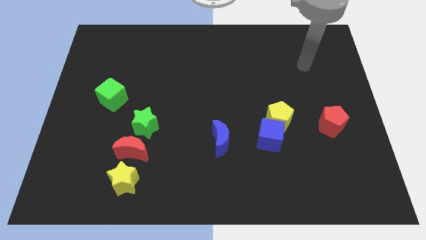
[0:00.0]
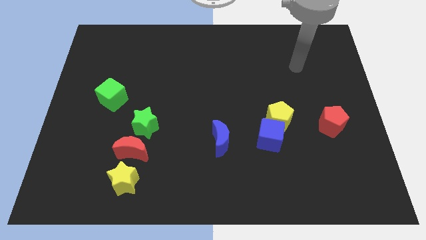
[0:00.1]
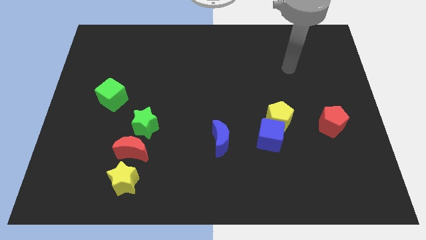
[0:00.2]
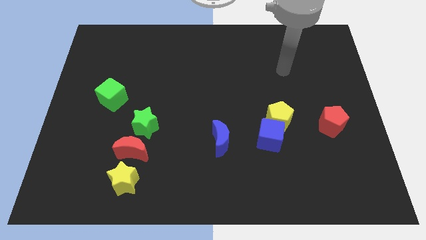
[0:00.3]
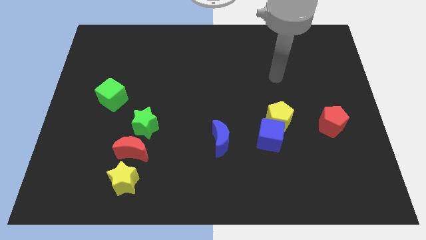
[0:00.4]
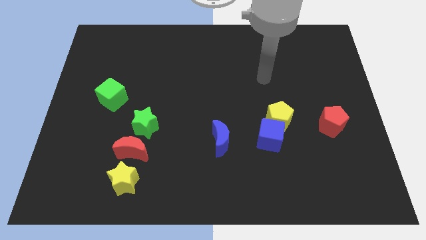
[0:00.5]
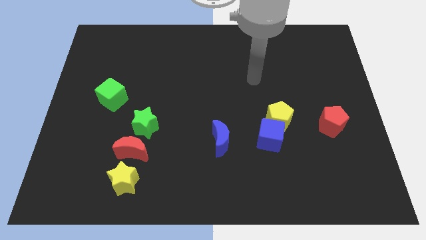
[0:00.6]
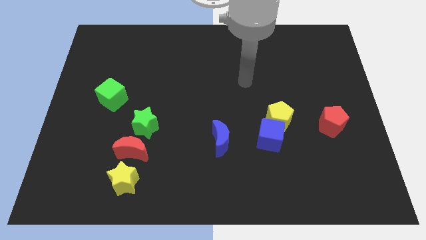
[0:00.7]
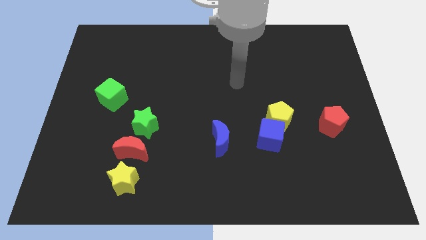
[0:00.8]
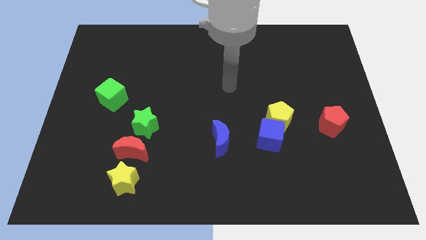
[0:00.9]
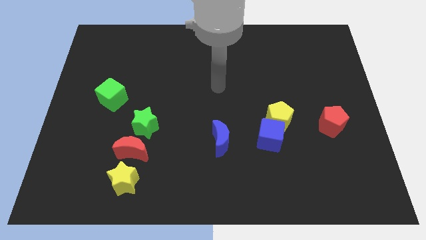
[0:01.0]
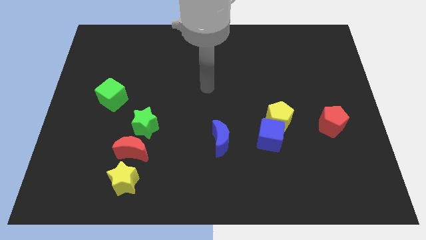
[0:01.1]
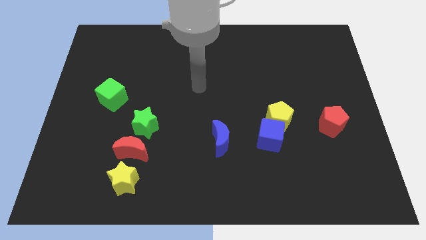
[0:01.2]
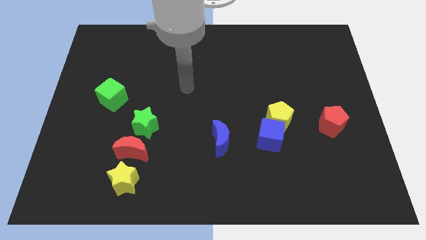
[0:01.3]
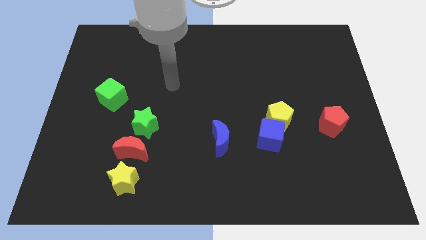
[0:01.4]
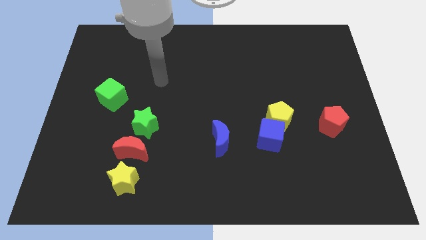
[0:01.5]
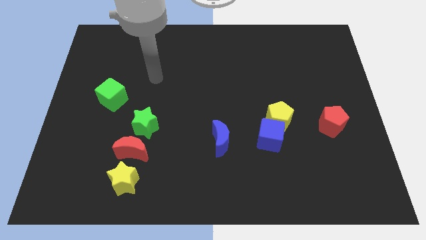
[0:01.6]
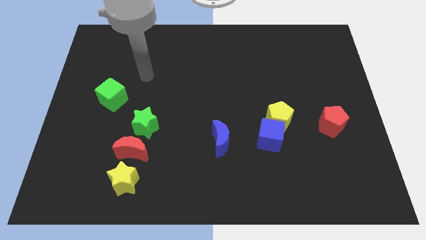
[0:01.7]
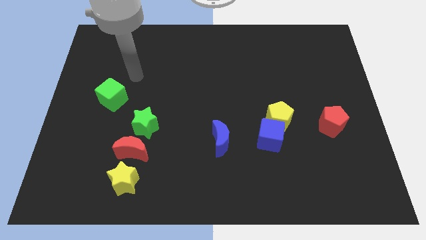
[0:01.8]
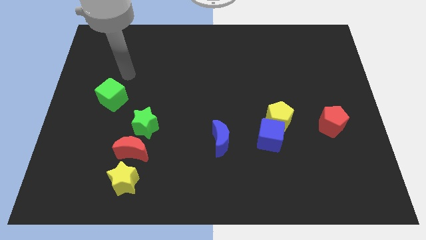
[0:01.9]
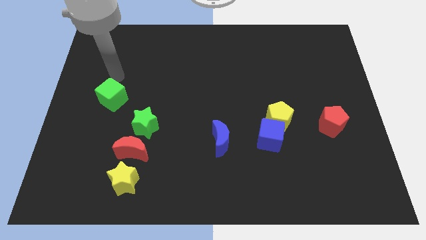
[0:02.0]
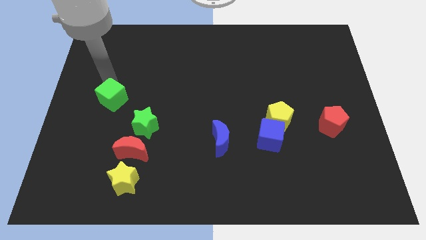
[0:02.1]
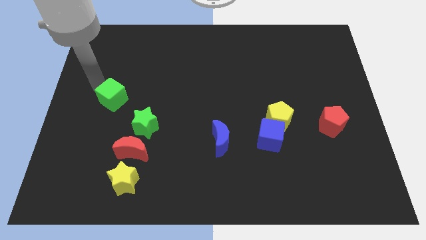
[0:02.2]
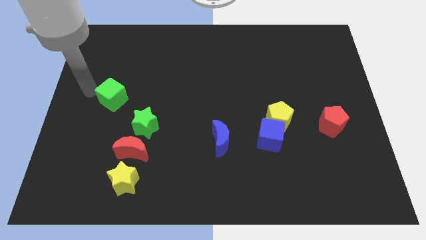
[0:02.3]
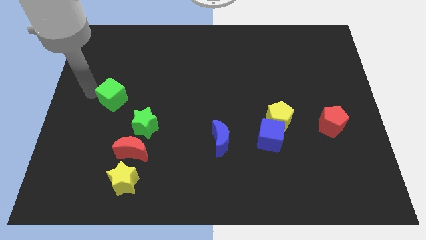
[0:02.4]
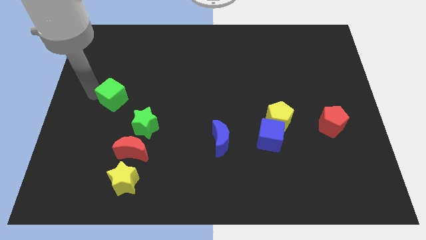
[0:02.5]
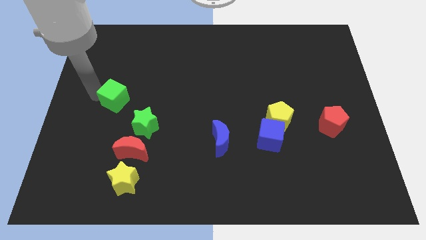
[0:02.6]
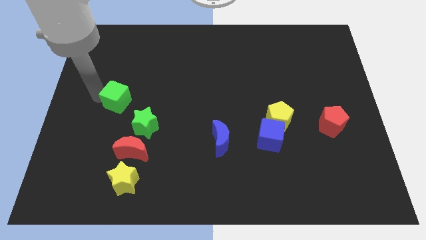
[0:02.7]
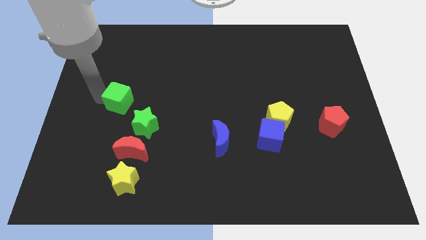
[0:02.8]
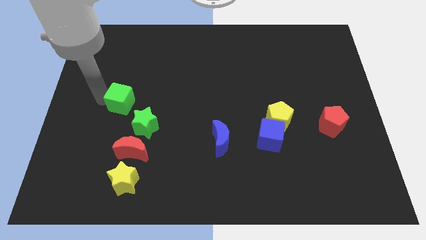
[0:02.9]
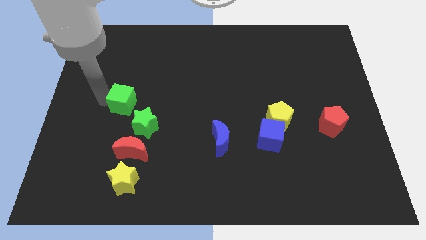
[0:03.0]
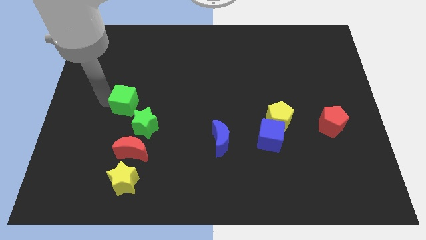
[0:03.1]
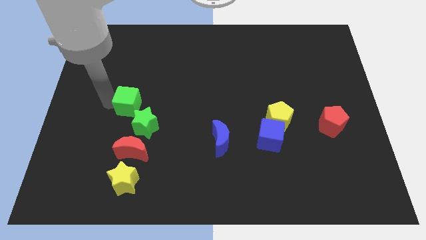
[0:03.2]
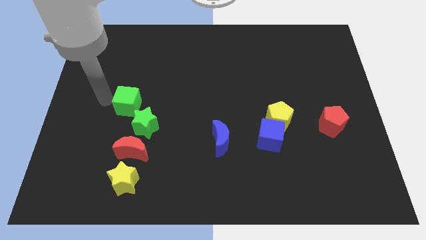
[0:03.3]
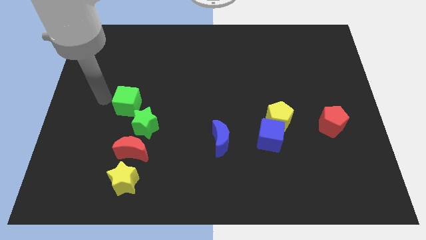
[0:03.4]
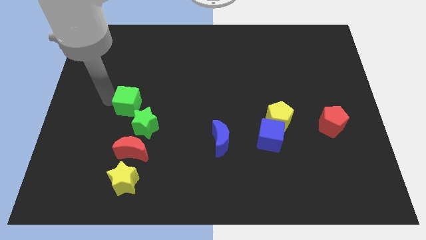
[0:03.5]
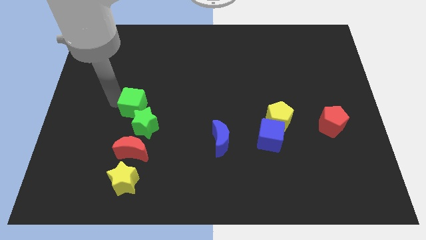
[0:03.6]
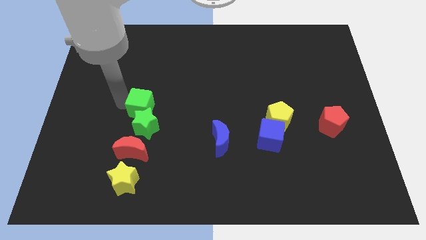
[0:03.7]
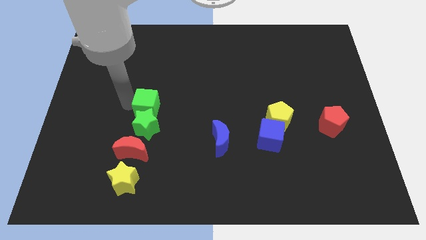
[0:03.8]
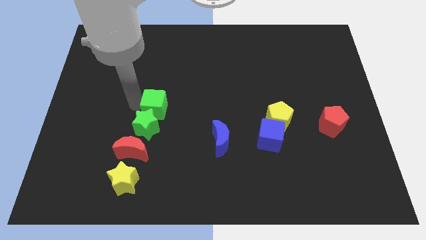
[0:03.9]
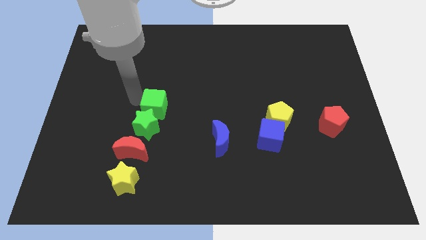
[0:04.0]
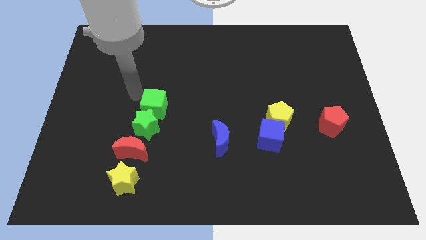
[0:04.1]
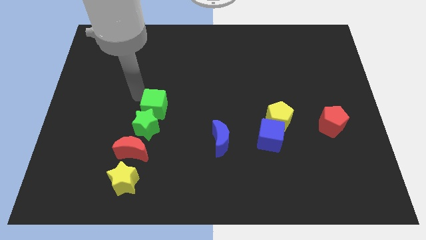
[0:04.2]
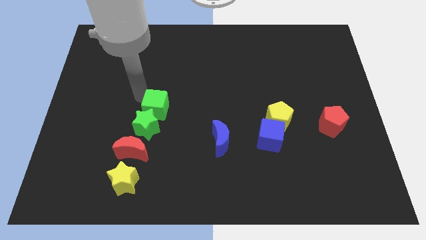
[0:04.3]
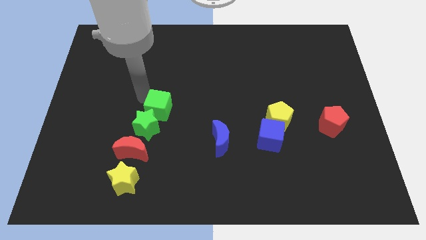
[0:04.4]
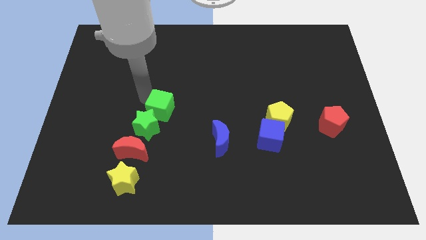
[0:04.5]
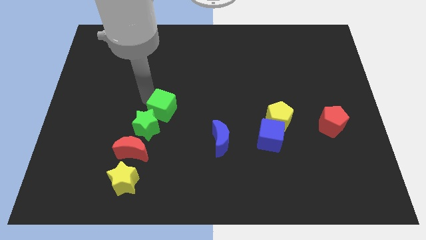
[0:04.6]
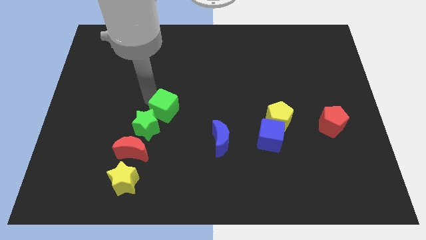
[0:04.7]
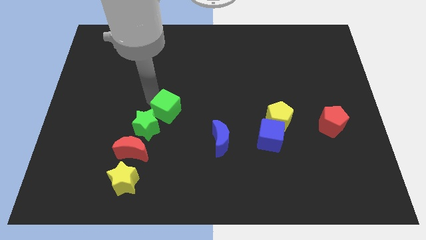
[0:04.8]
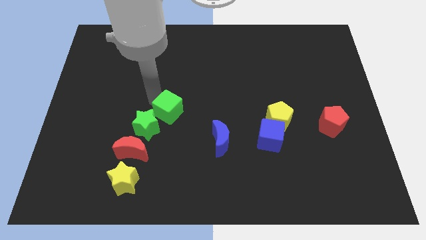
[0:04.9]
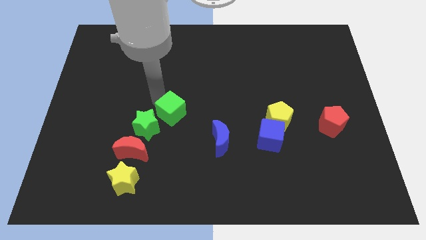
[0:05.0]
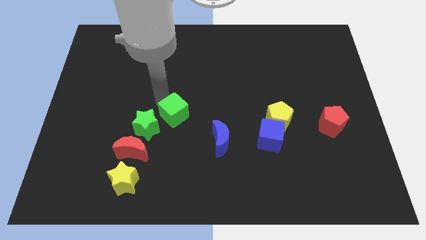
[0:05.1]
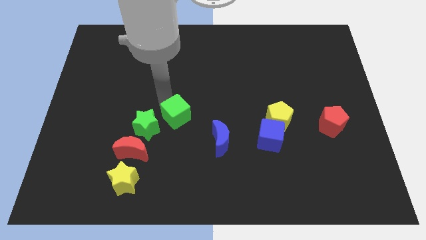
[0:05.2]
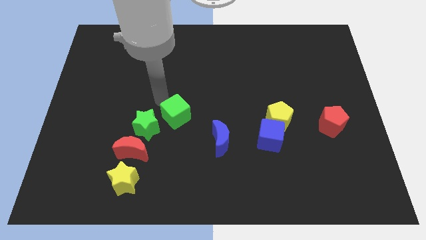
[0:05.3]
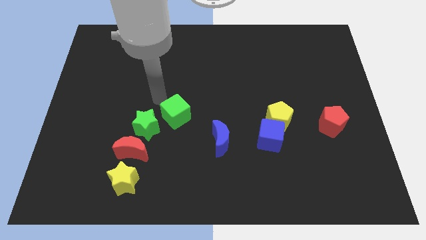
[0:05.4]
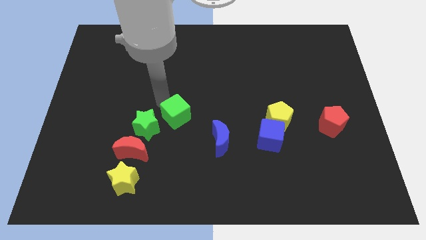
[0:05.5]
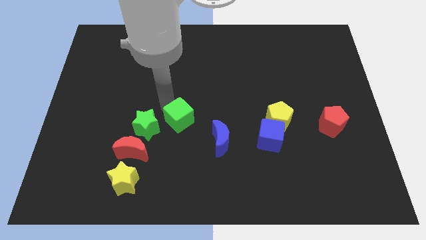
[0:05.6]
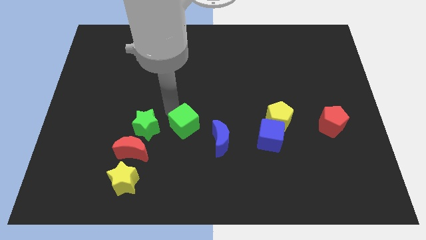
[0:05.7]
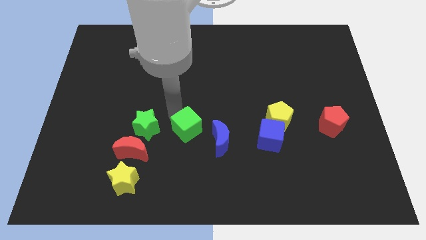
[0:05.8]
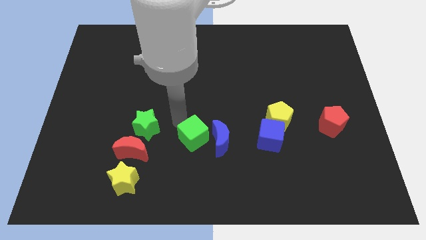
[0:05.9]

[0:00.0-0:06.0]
put the green cube close to the blue moon

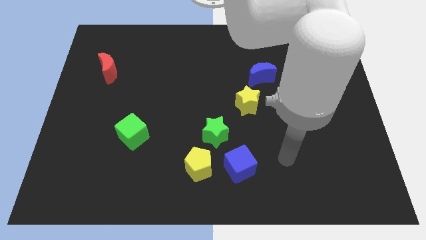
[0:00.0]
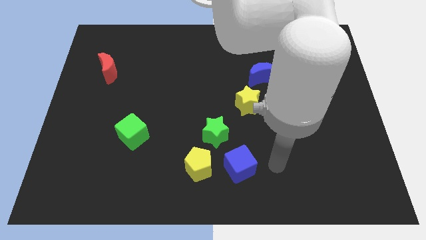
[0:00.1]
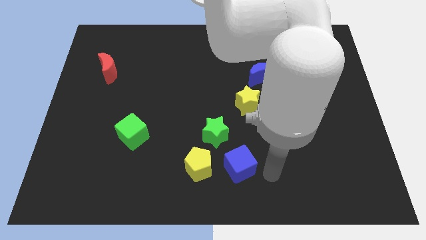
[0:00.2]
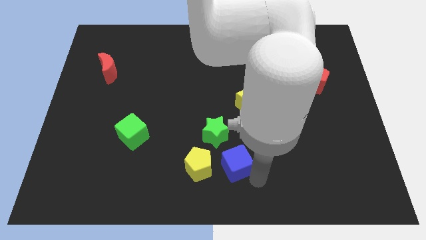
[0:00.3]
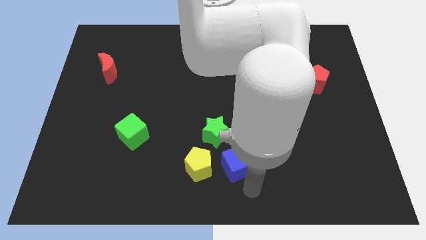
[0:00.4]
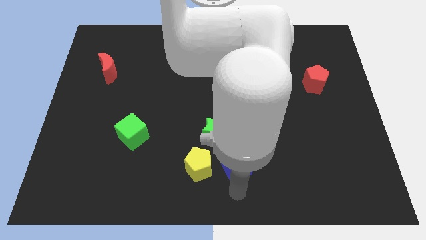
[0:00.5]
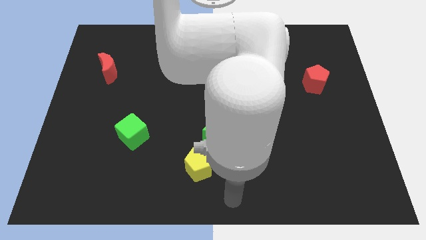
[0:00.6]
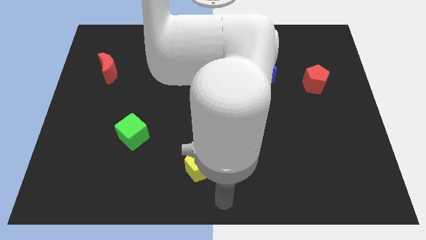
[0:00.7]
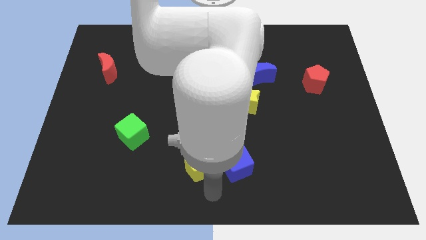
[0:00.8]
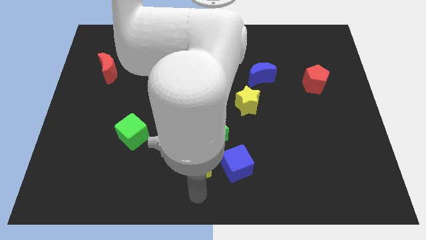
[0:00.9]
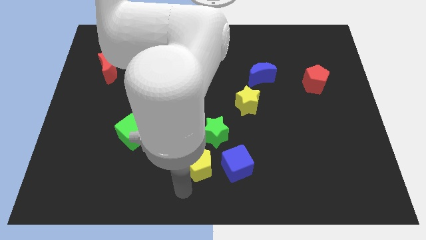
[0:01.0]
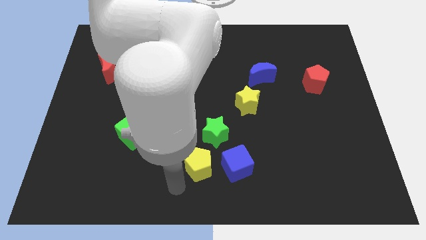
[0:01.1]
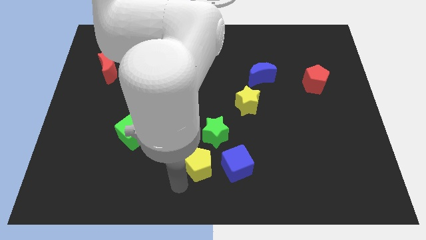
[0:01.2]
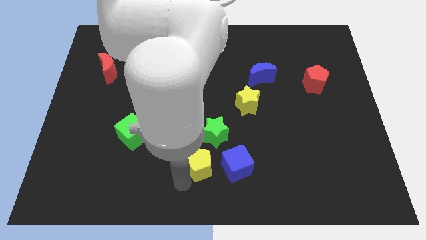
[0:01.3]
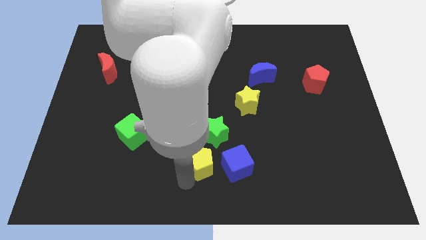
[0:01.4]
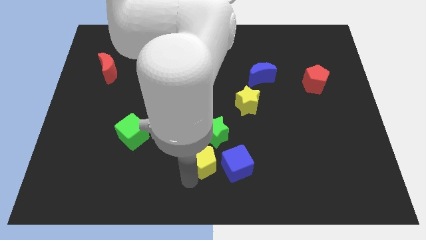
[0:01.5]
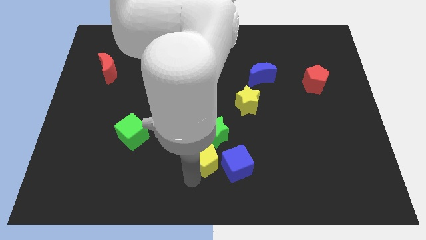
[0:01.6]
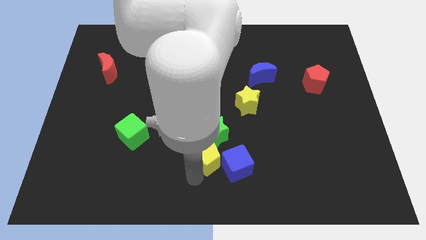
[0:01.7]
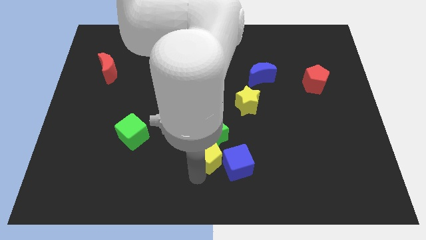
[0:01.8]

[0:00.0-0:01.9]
push the yellow pentagon next to the green star
